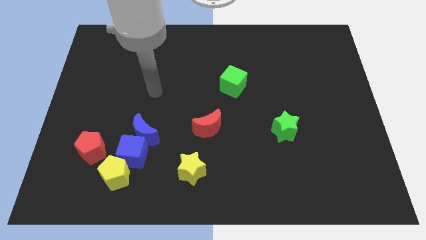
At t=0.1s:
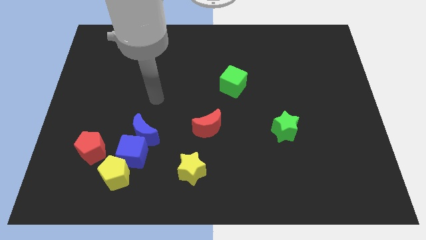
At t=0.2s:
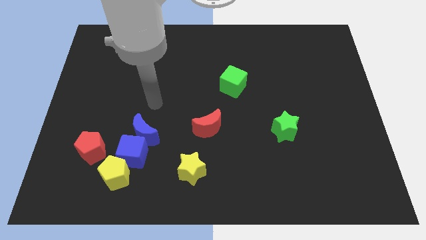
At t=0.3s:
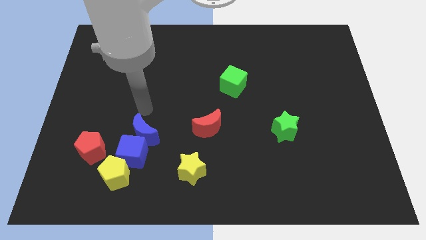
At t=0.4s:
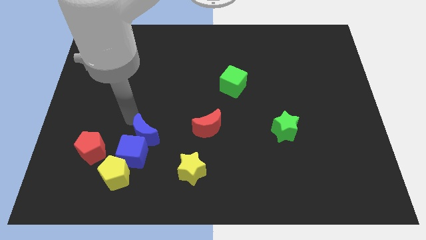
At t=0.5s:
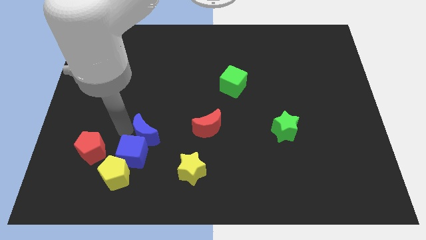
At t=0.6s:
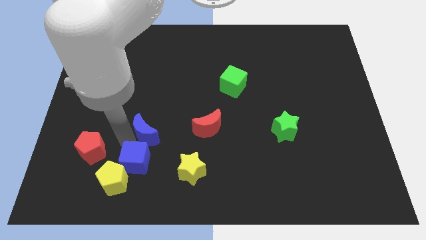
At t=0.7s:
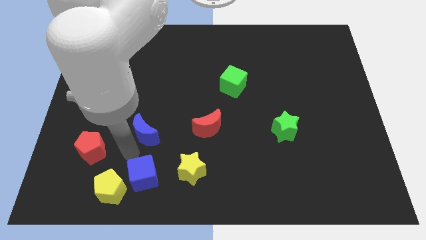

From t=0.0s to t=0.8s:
separate the blue moon from the blue cube

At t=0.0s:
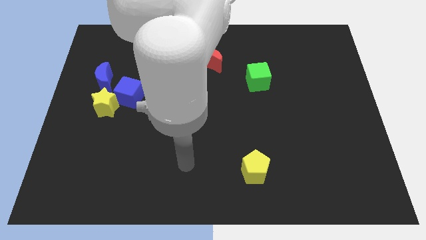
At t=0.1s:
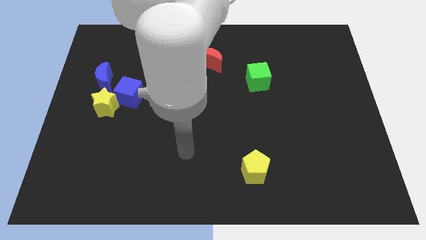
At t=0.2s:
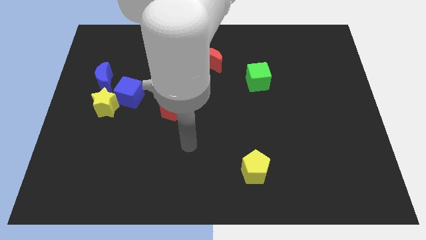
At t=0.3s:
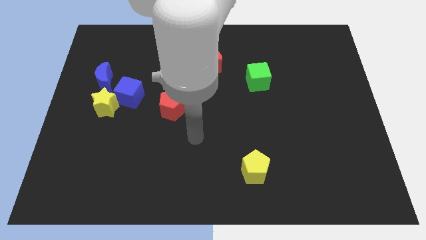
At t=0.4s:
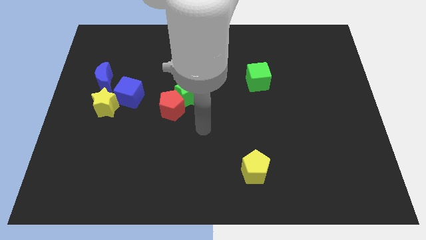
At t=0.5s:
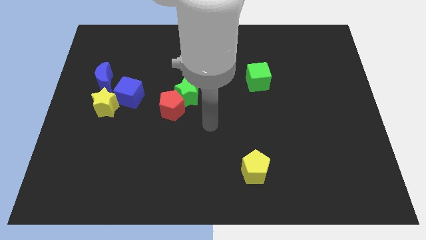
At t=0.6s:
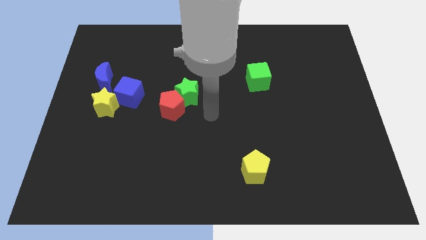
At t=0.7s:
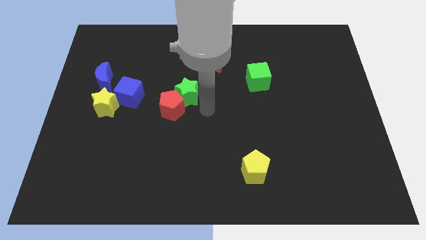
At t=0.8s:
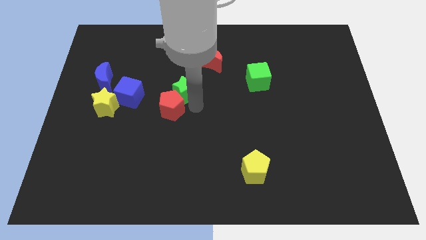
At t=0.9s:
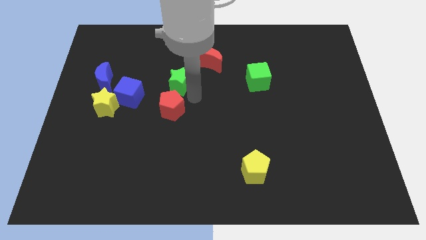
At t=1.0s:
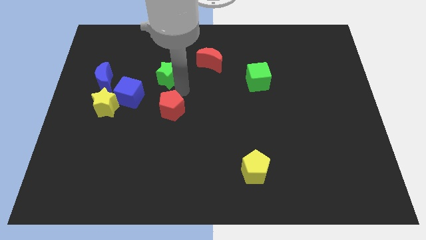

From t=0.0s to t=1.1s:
separate the red pentagon from the green star

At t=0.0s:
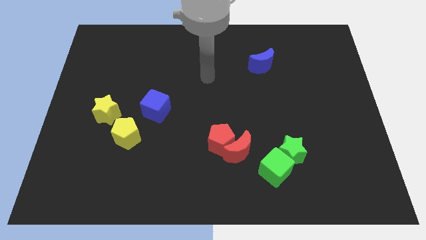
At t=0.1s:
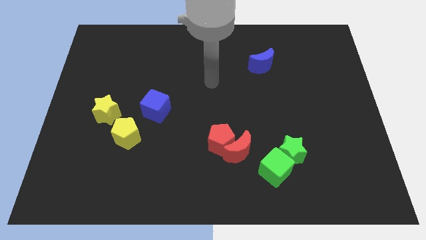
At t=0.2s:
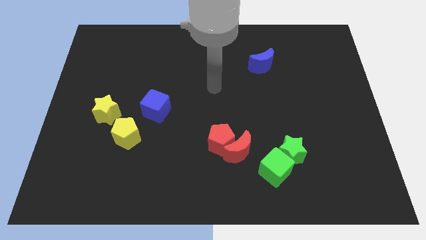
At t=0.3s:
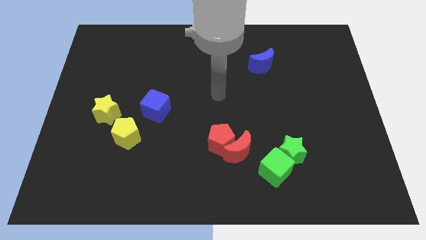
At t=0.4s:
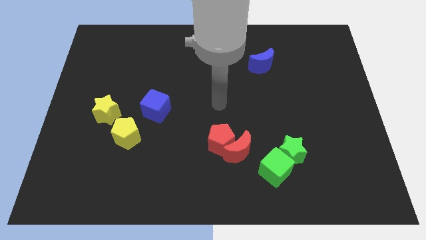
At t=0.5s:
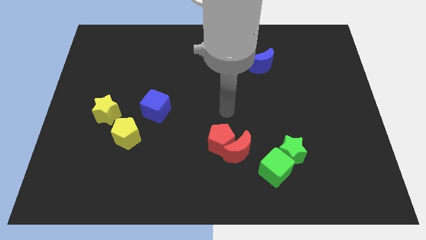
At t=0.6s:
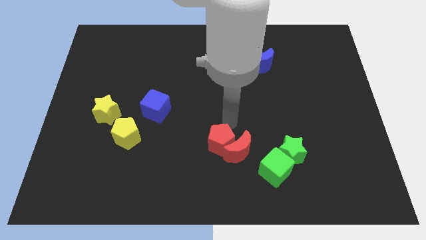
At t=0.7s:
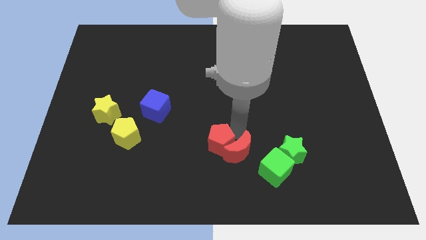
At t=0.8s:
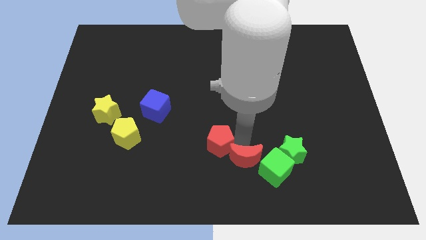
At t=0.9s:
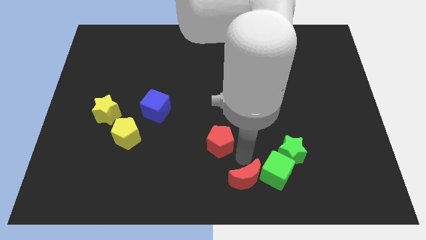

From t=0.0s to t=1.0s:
pull the red pentagon apart from the red moon

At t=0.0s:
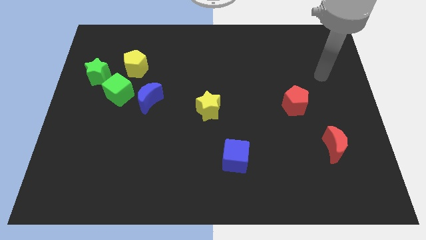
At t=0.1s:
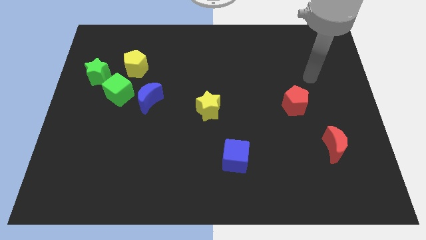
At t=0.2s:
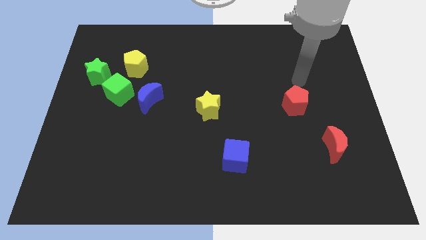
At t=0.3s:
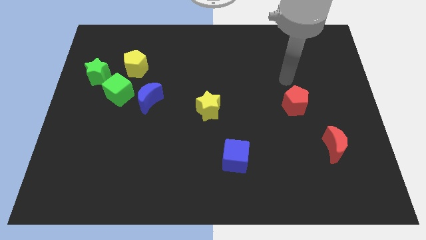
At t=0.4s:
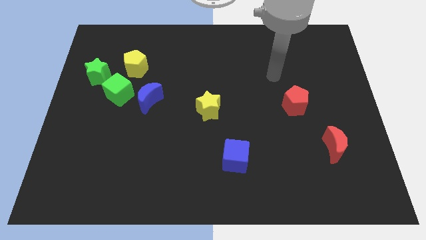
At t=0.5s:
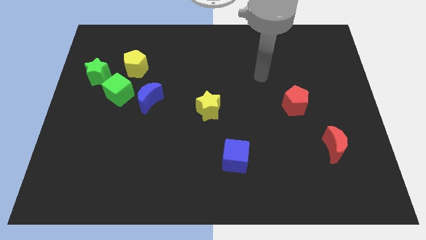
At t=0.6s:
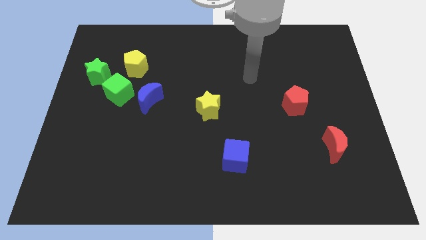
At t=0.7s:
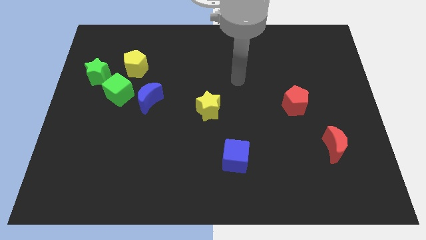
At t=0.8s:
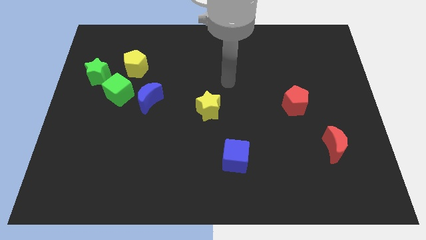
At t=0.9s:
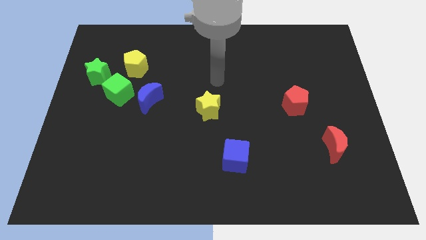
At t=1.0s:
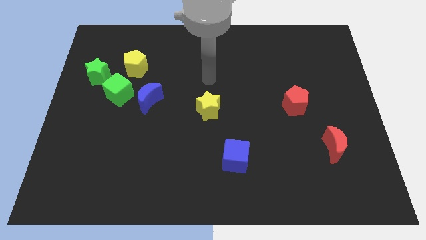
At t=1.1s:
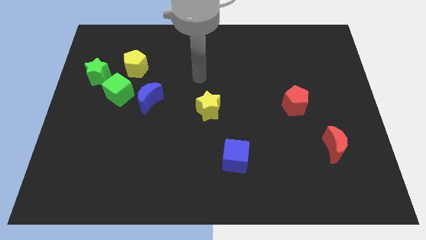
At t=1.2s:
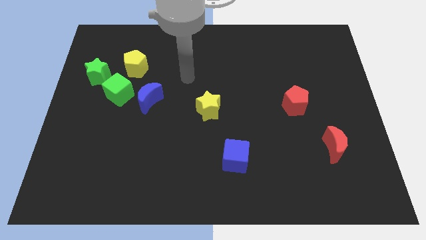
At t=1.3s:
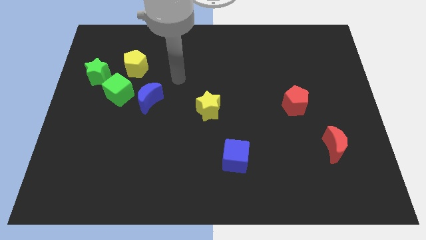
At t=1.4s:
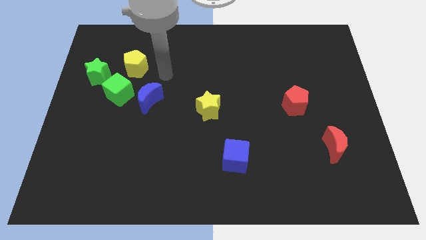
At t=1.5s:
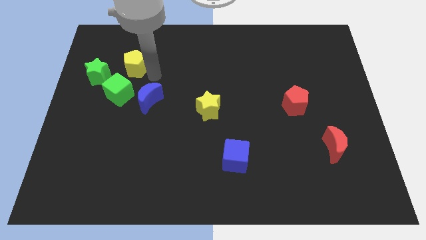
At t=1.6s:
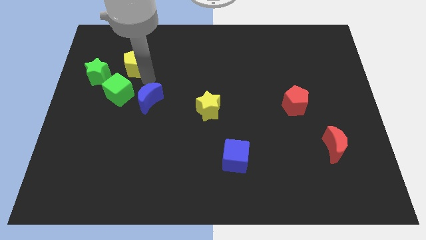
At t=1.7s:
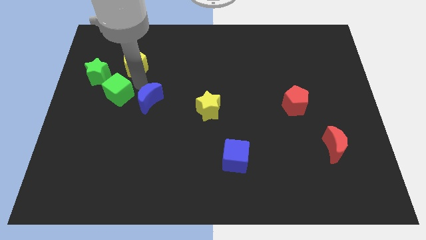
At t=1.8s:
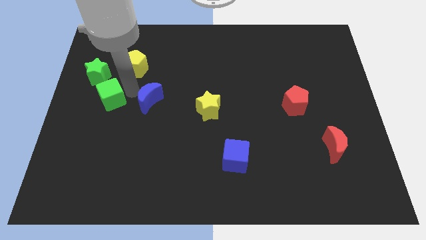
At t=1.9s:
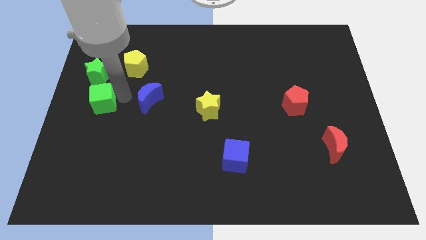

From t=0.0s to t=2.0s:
move the blue moon away from the green cube

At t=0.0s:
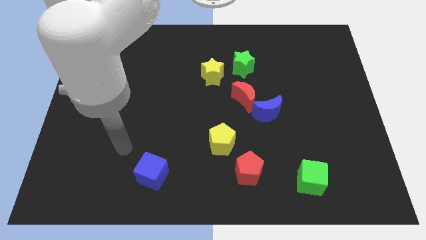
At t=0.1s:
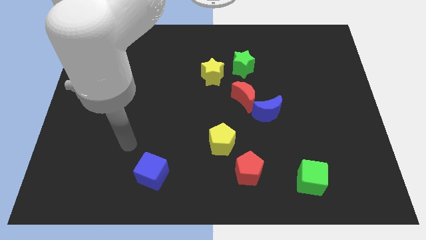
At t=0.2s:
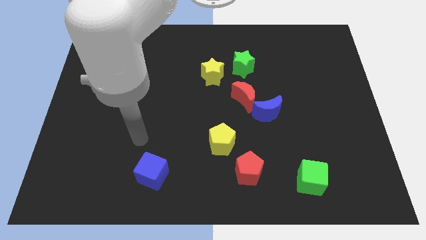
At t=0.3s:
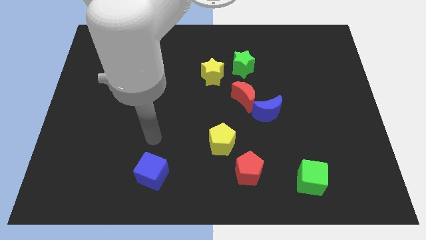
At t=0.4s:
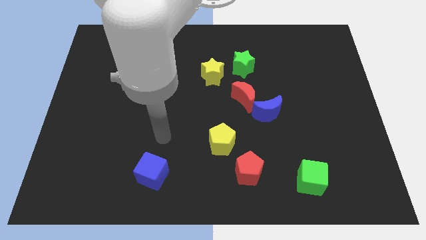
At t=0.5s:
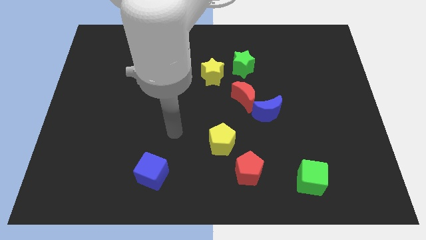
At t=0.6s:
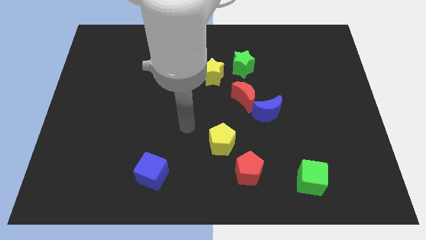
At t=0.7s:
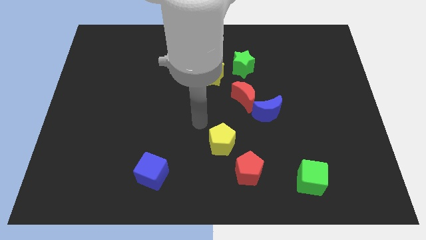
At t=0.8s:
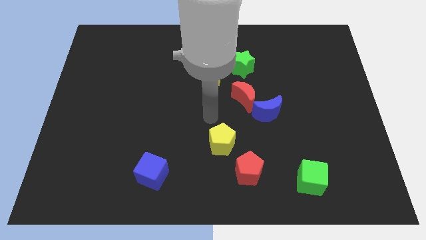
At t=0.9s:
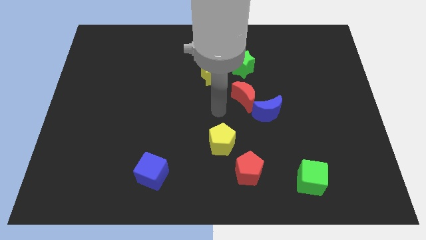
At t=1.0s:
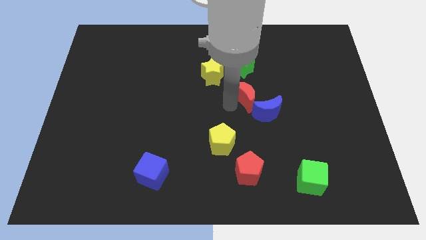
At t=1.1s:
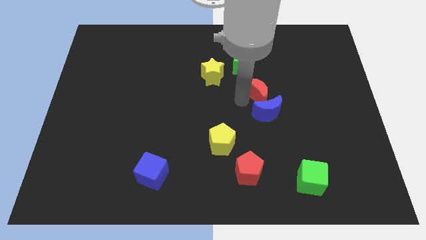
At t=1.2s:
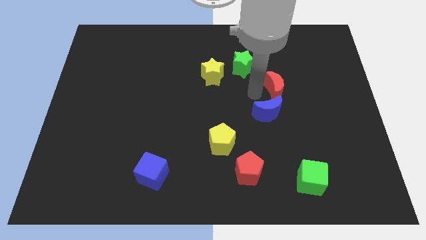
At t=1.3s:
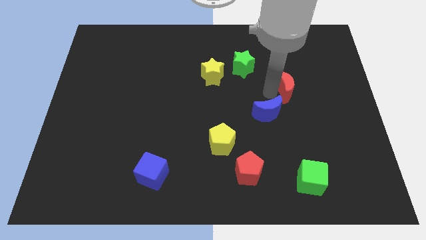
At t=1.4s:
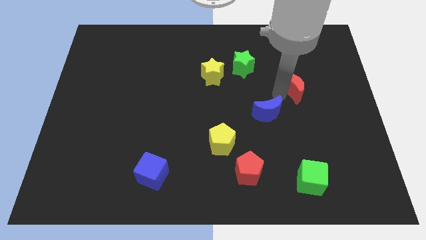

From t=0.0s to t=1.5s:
pull the blue moon apart from the red moon

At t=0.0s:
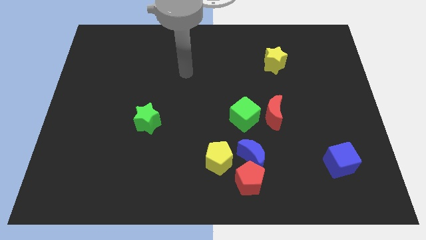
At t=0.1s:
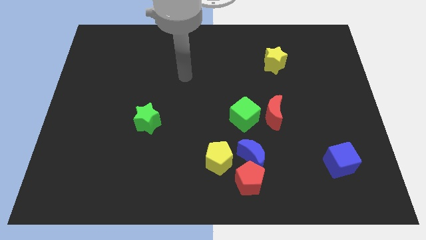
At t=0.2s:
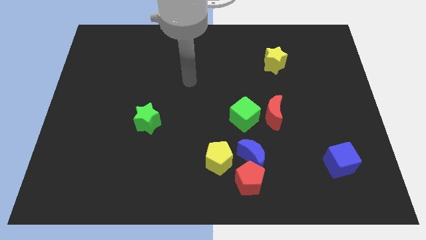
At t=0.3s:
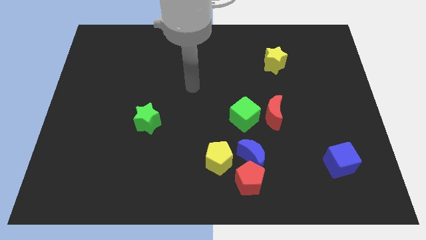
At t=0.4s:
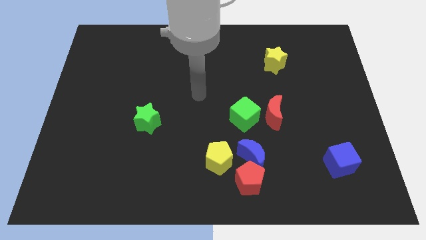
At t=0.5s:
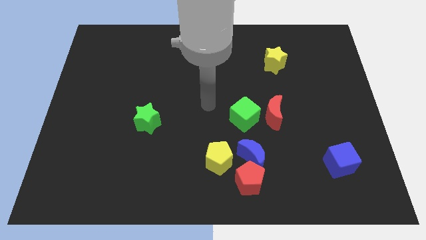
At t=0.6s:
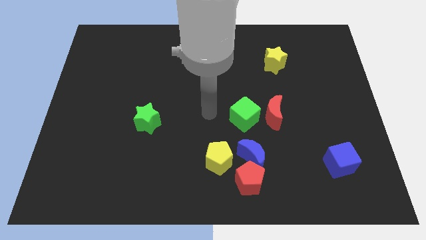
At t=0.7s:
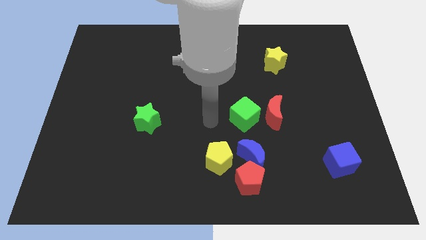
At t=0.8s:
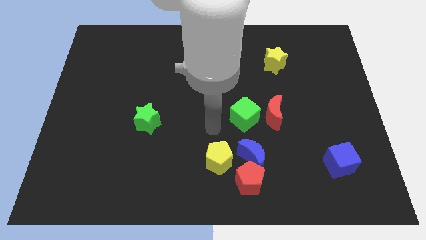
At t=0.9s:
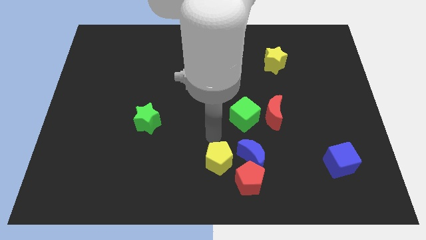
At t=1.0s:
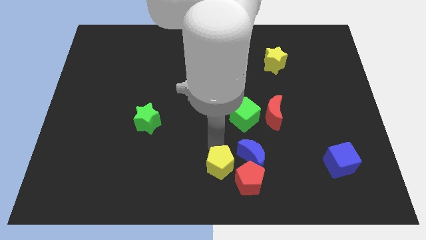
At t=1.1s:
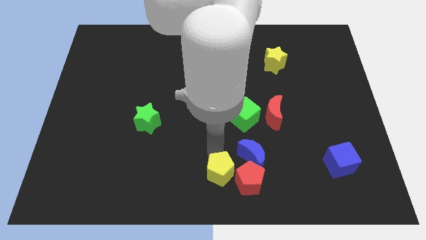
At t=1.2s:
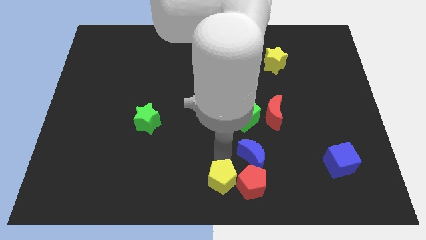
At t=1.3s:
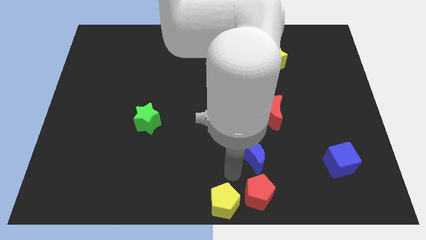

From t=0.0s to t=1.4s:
move the blue moon away from the red pentagon and yellow pentagon

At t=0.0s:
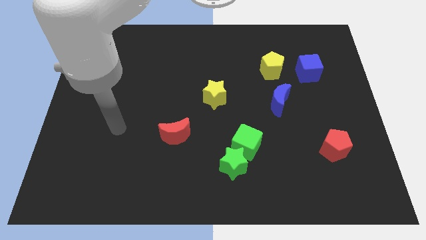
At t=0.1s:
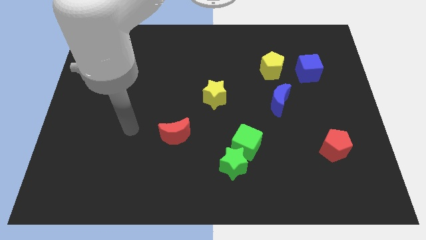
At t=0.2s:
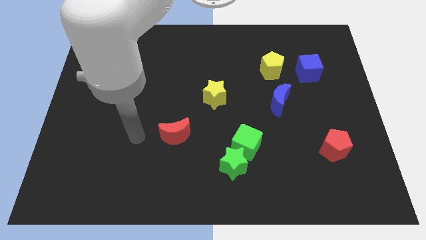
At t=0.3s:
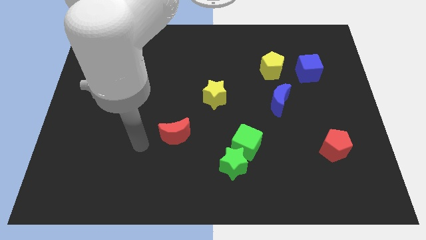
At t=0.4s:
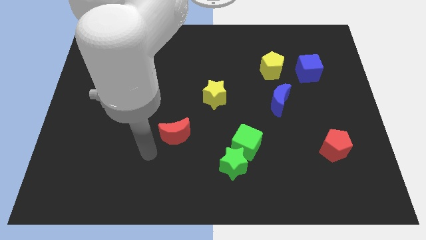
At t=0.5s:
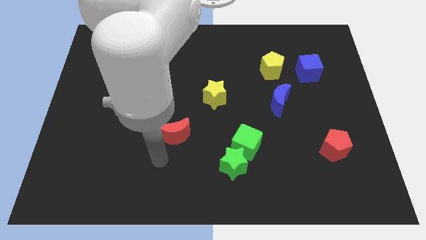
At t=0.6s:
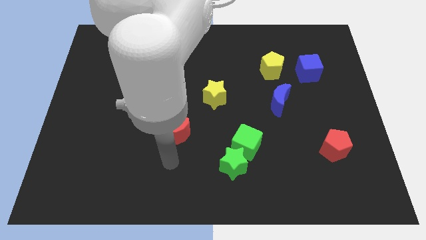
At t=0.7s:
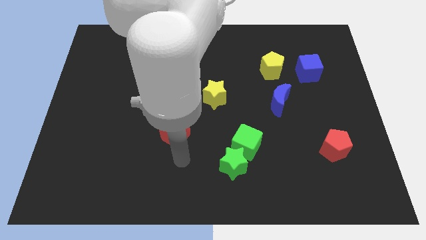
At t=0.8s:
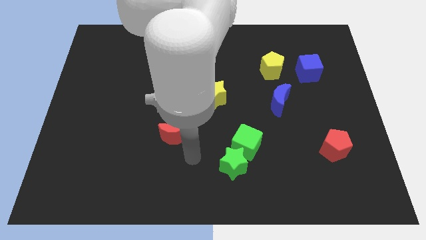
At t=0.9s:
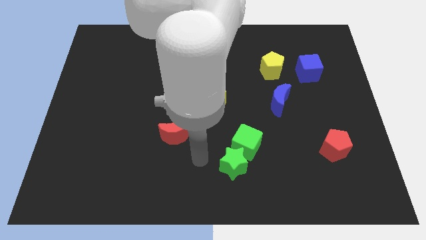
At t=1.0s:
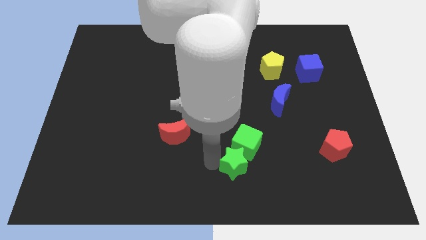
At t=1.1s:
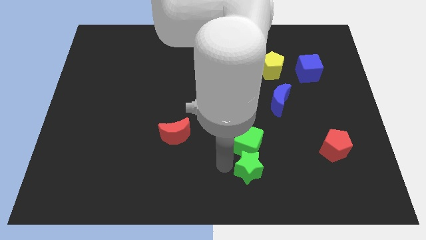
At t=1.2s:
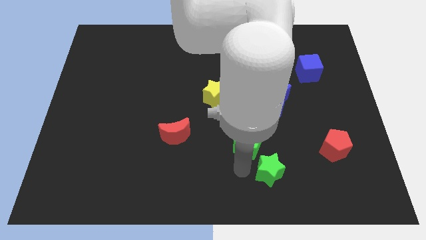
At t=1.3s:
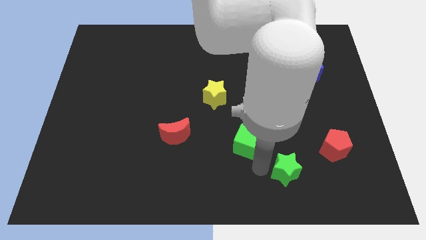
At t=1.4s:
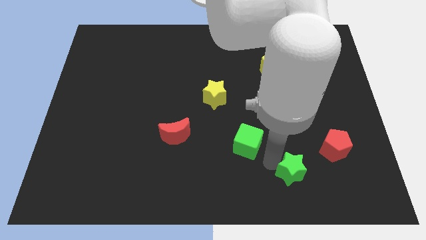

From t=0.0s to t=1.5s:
pull the green cube apart from the green star
